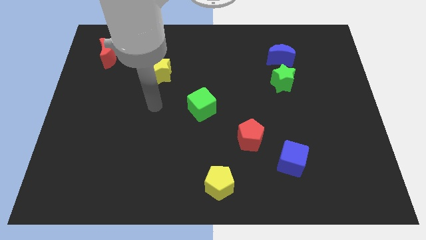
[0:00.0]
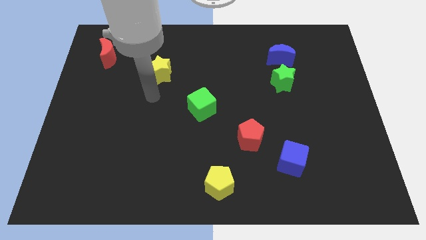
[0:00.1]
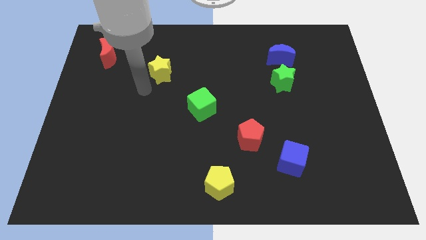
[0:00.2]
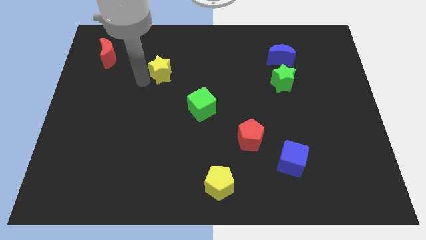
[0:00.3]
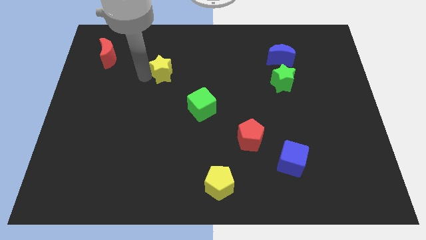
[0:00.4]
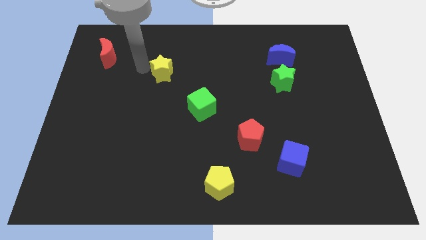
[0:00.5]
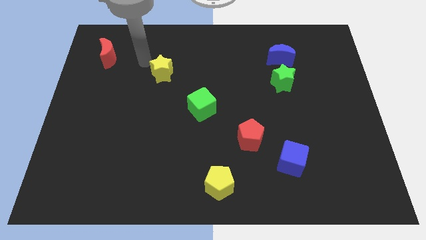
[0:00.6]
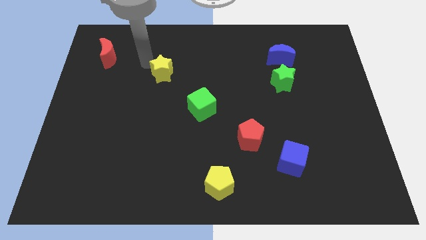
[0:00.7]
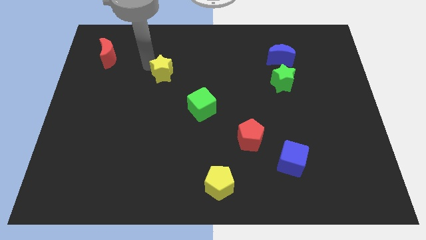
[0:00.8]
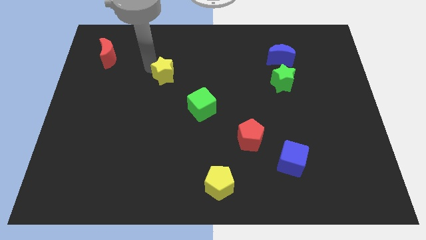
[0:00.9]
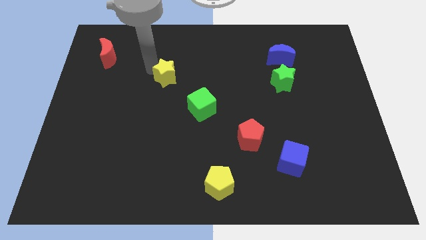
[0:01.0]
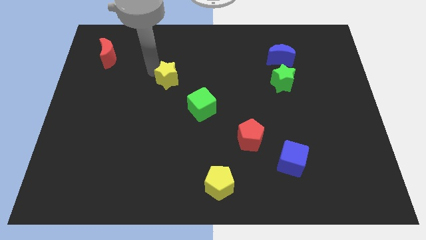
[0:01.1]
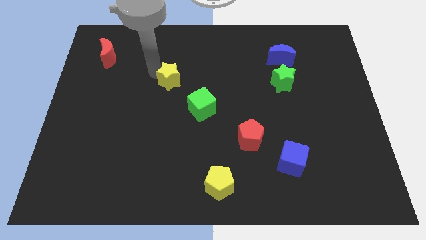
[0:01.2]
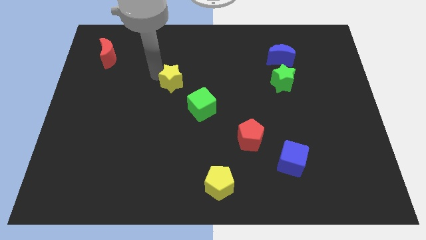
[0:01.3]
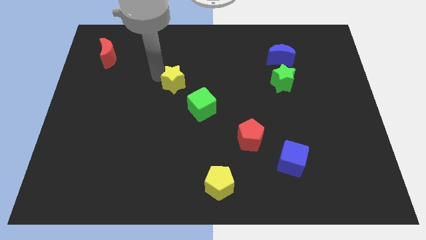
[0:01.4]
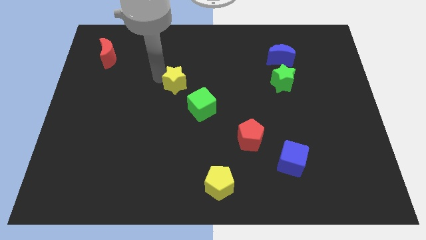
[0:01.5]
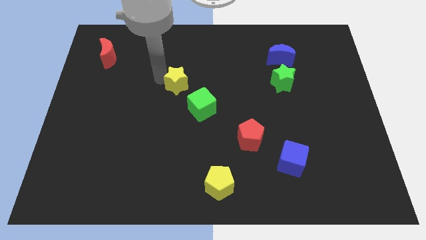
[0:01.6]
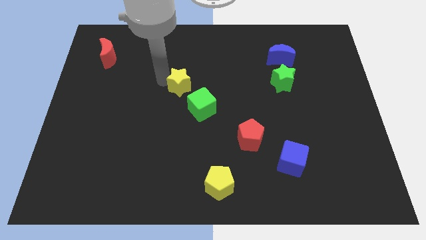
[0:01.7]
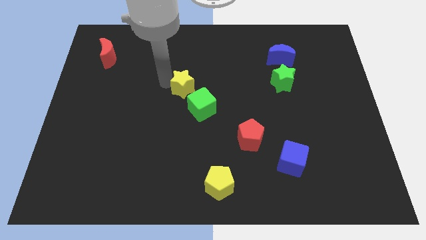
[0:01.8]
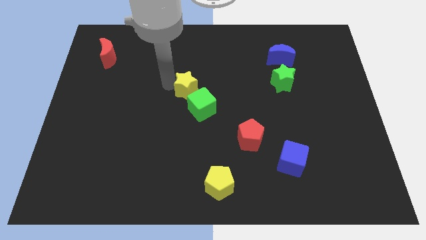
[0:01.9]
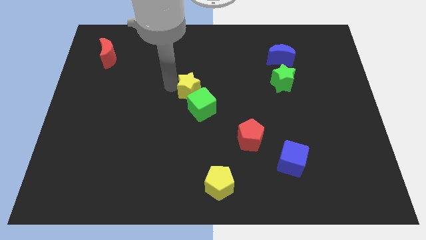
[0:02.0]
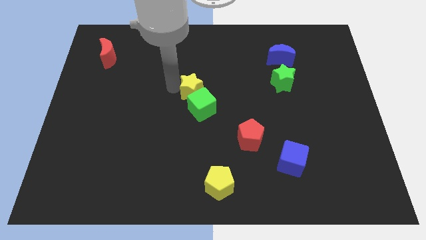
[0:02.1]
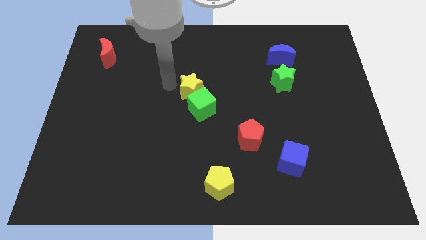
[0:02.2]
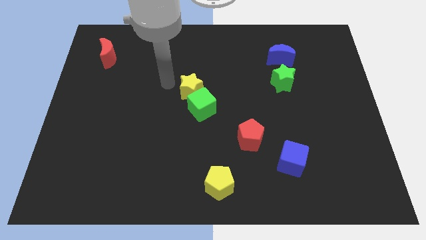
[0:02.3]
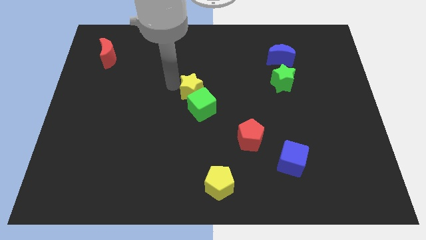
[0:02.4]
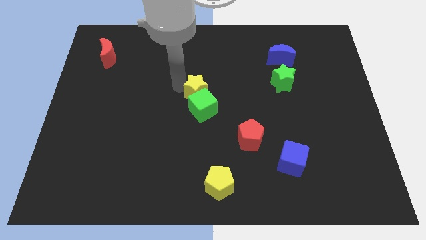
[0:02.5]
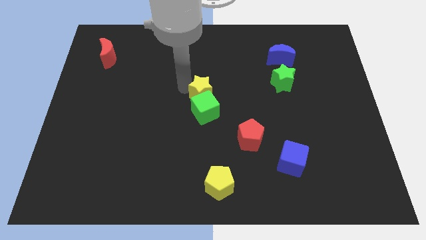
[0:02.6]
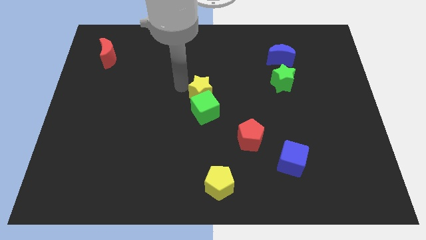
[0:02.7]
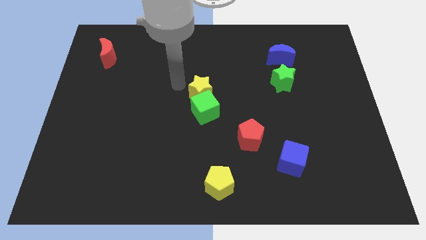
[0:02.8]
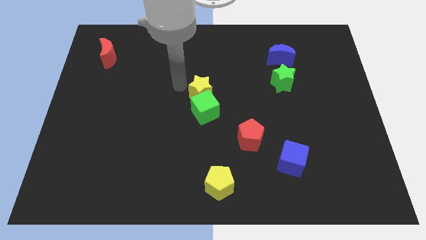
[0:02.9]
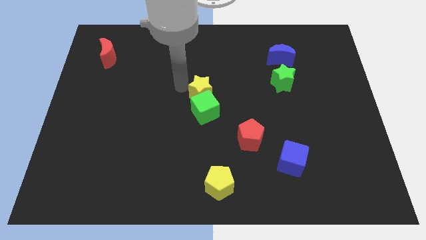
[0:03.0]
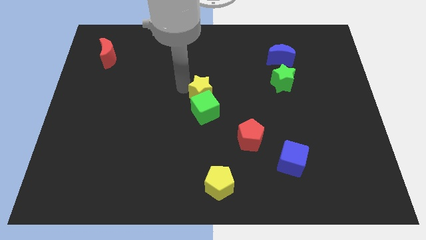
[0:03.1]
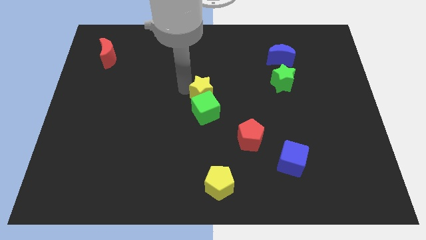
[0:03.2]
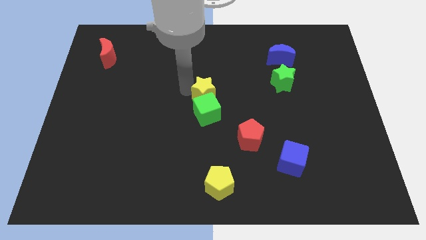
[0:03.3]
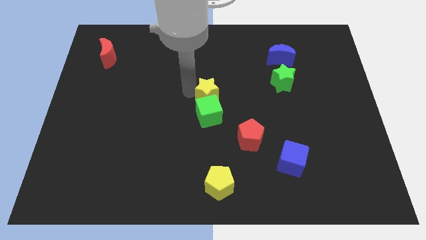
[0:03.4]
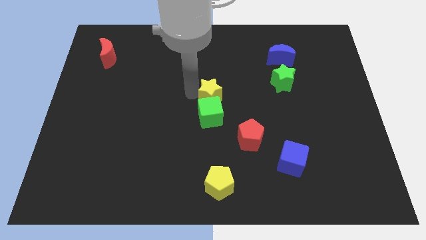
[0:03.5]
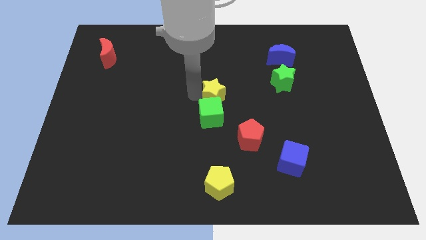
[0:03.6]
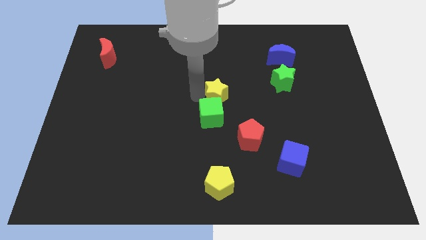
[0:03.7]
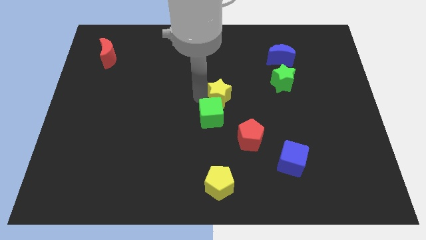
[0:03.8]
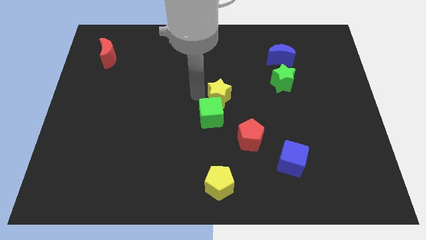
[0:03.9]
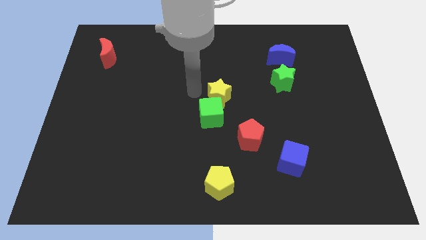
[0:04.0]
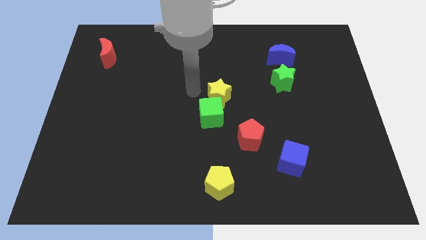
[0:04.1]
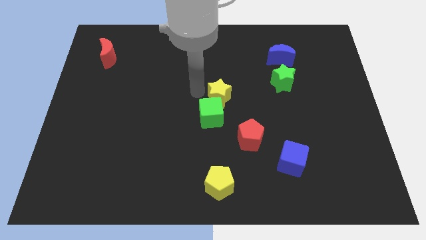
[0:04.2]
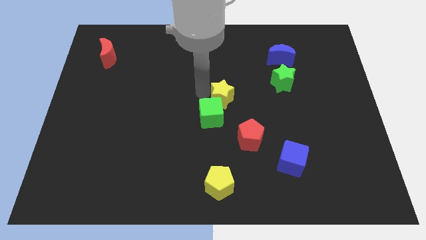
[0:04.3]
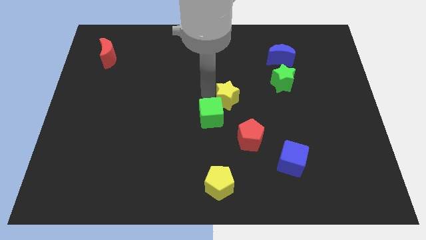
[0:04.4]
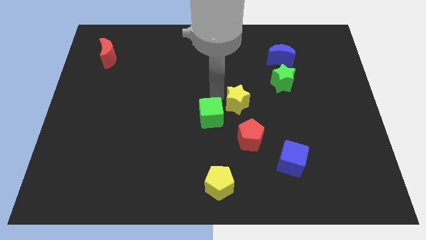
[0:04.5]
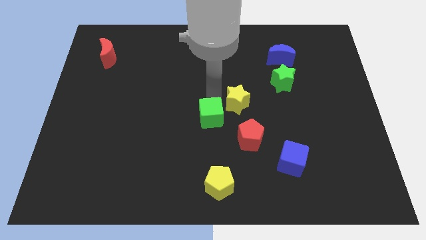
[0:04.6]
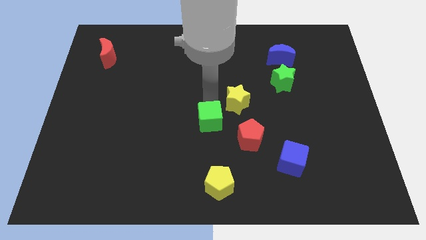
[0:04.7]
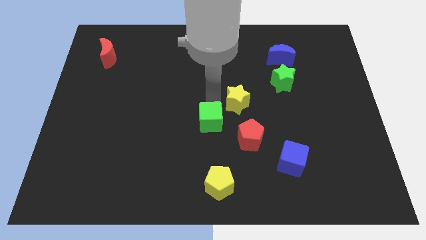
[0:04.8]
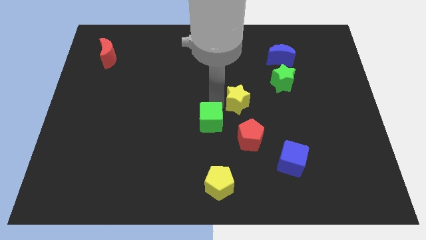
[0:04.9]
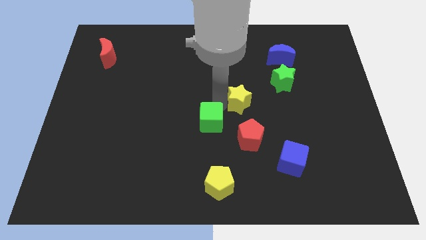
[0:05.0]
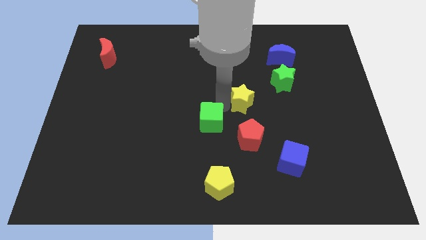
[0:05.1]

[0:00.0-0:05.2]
move the yellow star diagonally down and to the left of the green star

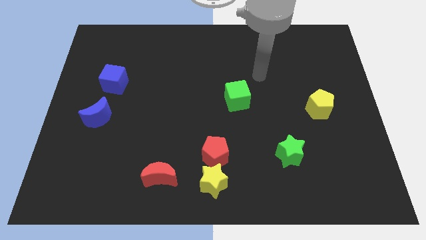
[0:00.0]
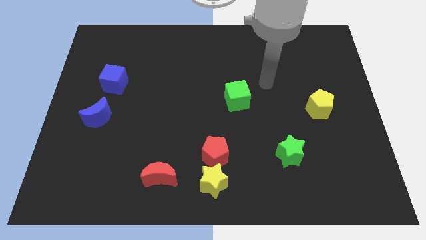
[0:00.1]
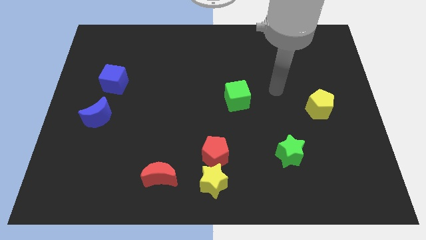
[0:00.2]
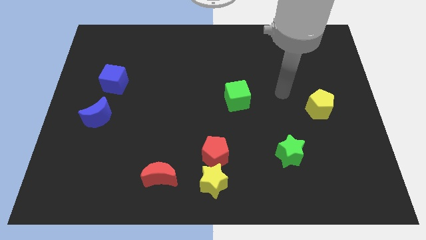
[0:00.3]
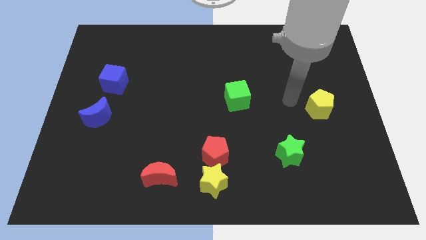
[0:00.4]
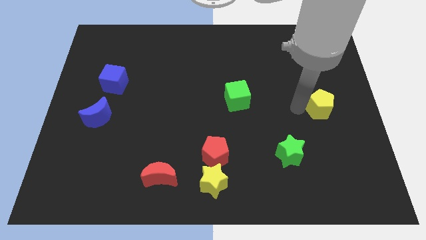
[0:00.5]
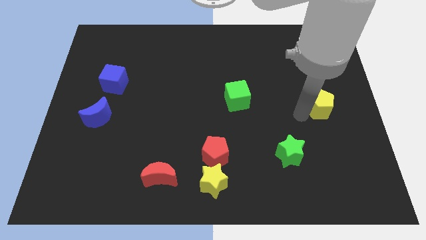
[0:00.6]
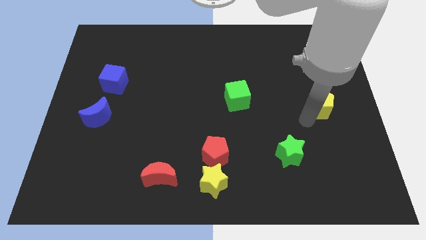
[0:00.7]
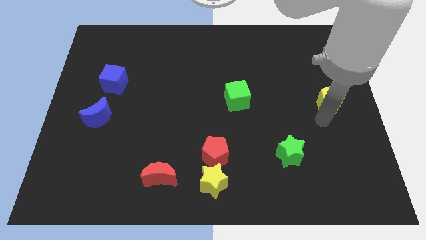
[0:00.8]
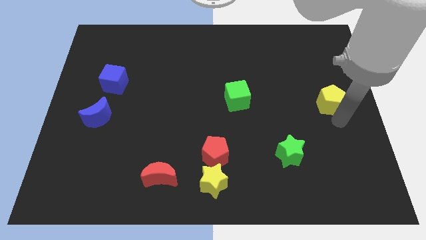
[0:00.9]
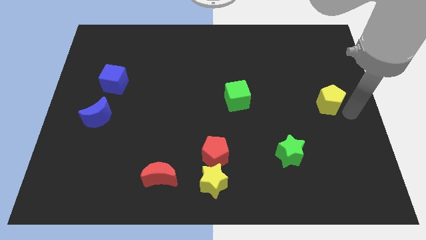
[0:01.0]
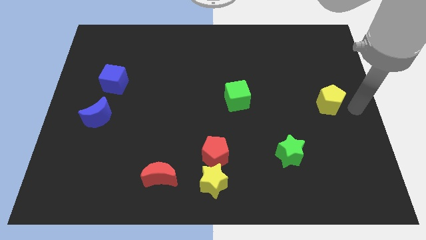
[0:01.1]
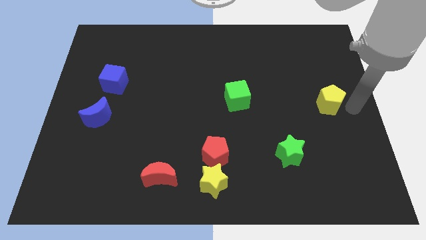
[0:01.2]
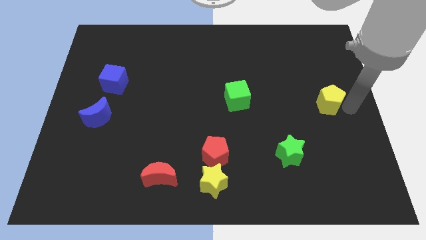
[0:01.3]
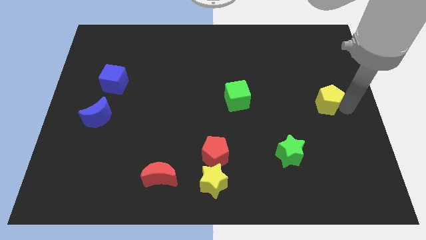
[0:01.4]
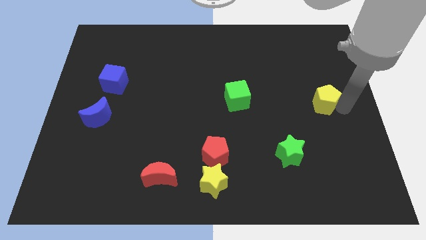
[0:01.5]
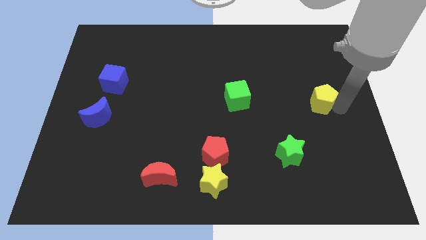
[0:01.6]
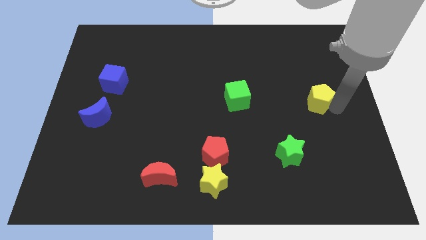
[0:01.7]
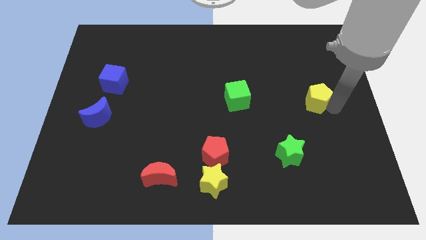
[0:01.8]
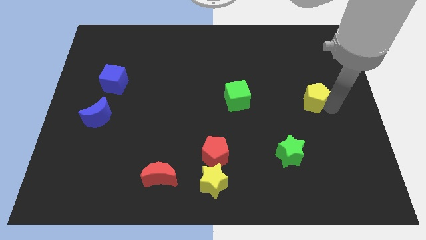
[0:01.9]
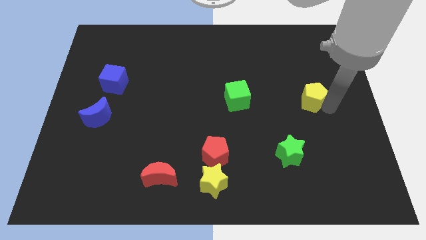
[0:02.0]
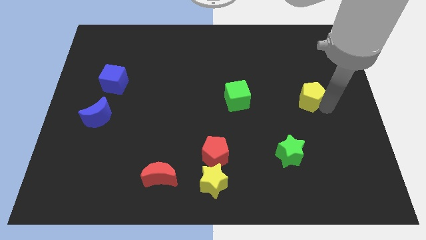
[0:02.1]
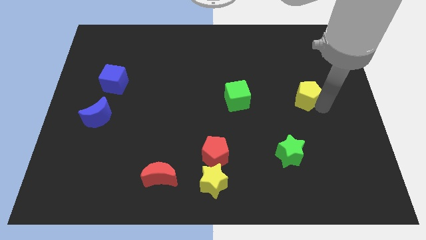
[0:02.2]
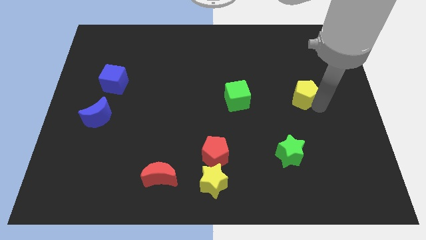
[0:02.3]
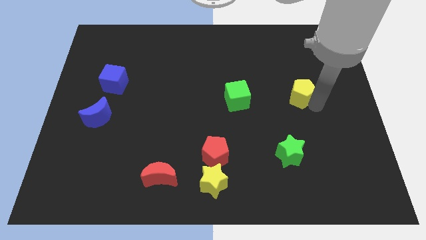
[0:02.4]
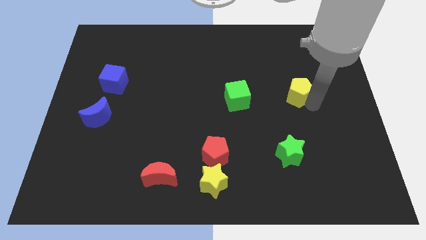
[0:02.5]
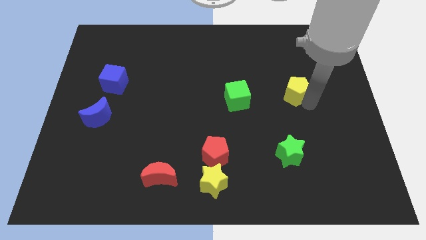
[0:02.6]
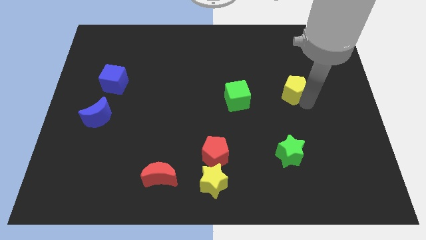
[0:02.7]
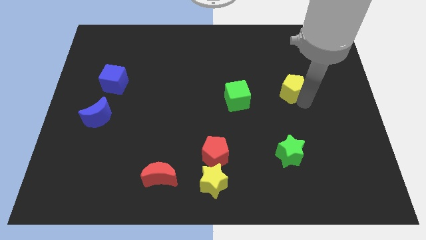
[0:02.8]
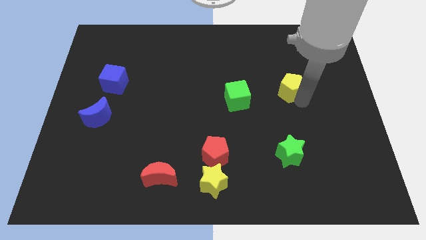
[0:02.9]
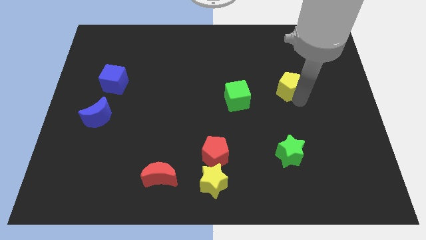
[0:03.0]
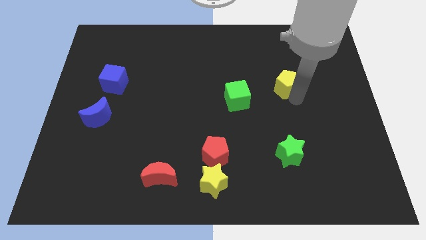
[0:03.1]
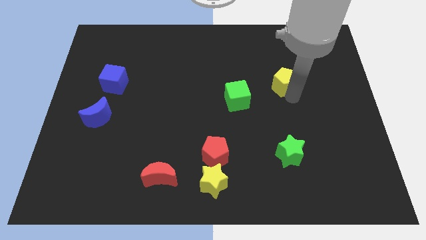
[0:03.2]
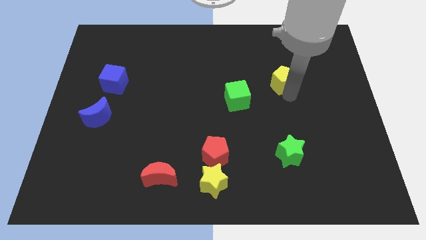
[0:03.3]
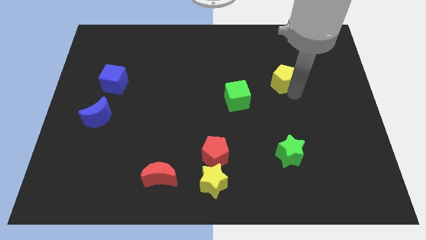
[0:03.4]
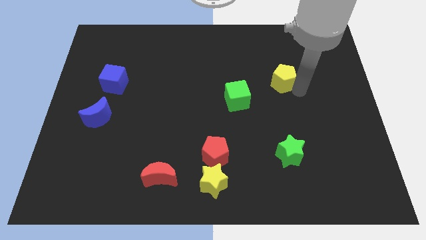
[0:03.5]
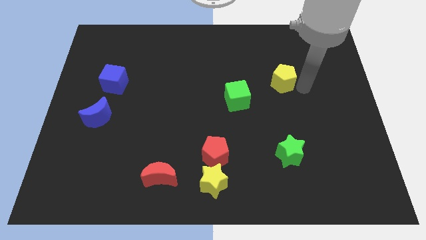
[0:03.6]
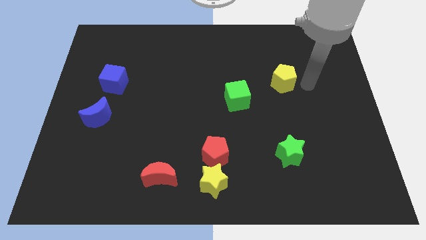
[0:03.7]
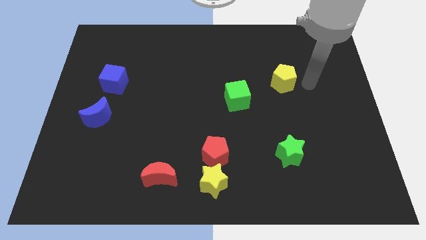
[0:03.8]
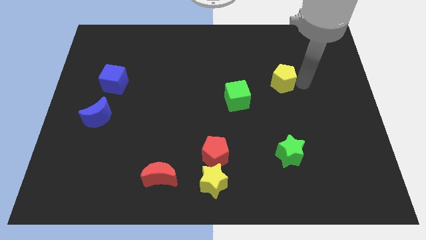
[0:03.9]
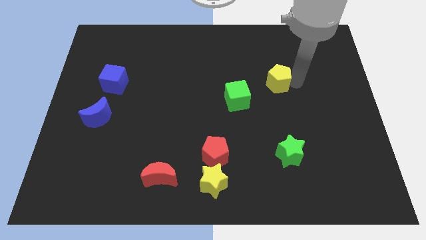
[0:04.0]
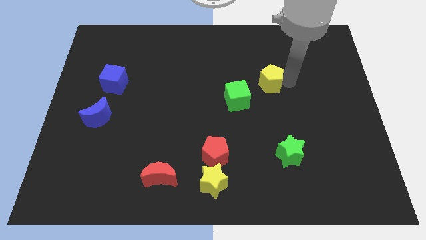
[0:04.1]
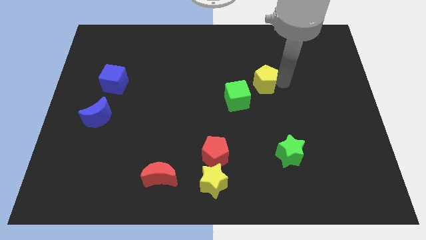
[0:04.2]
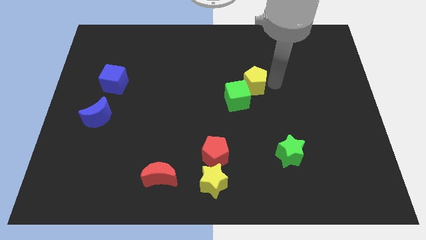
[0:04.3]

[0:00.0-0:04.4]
push the yellow pentagon to the top side of the green cube
